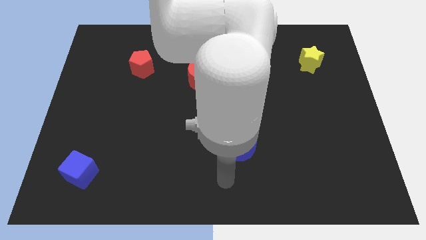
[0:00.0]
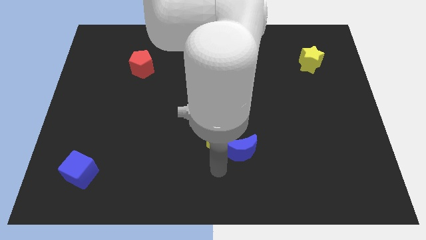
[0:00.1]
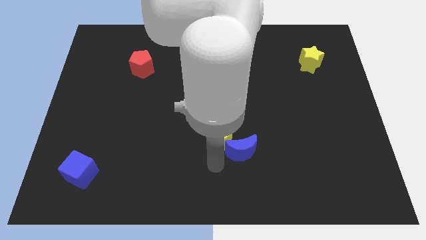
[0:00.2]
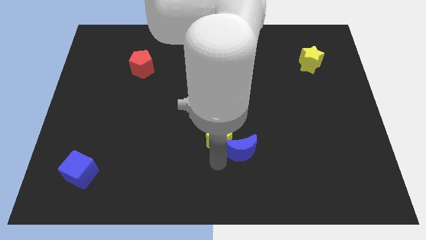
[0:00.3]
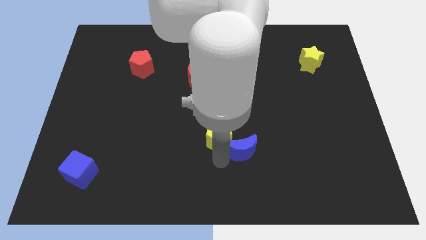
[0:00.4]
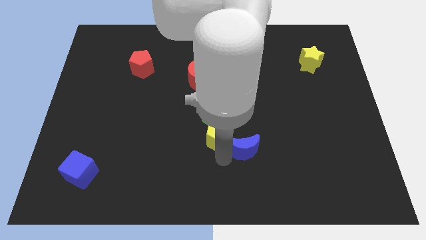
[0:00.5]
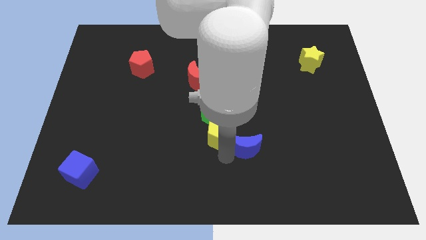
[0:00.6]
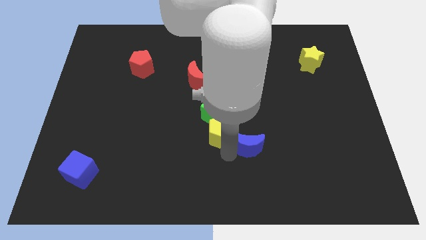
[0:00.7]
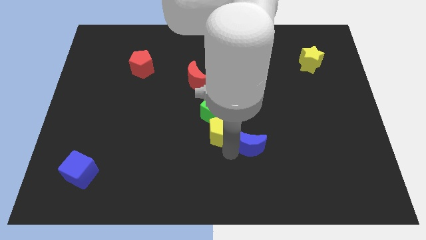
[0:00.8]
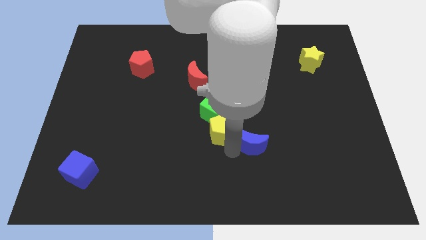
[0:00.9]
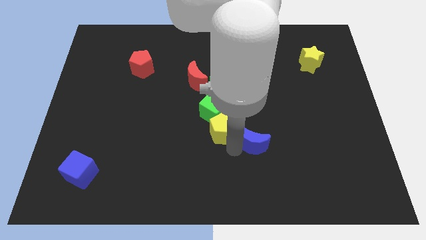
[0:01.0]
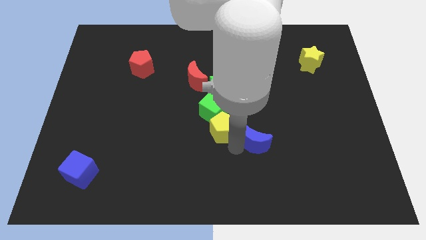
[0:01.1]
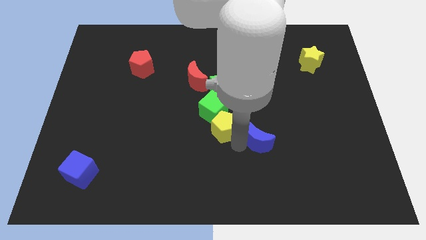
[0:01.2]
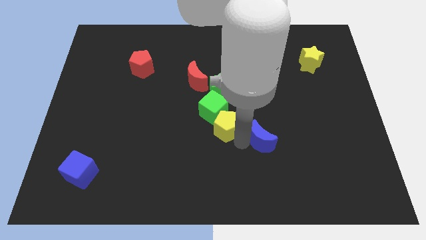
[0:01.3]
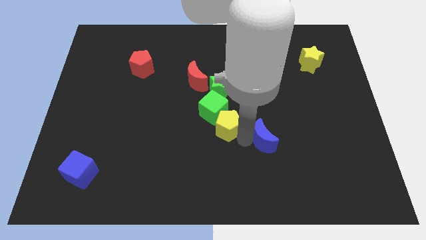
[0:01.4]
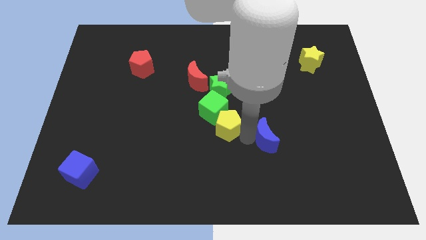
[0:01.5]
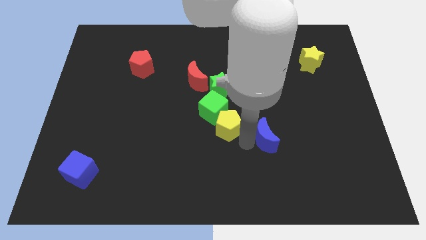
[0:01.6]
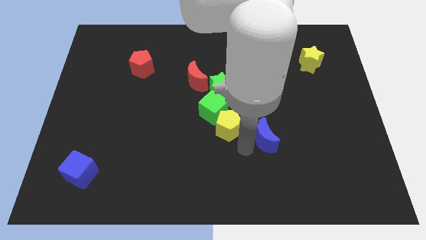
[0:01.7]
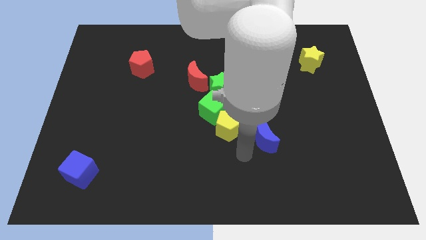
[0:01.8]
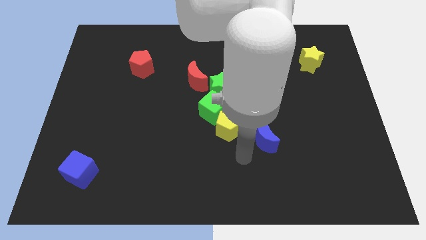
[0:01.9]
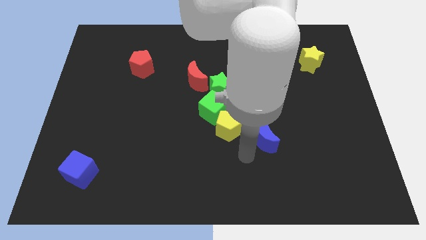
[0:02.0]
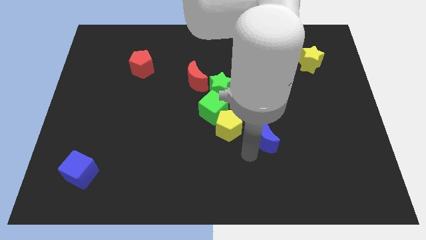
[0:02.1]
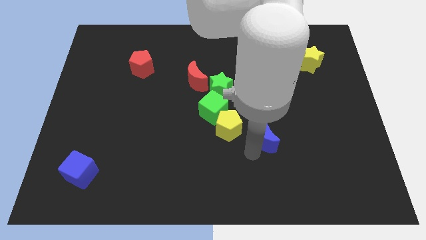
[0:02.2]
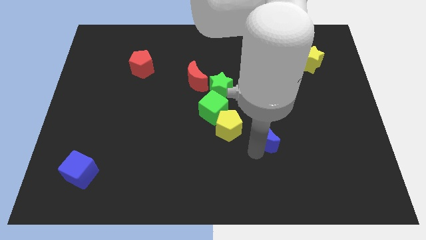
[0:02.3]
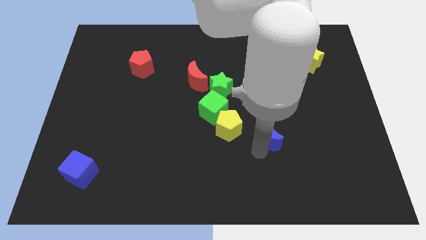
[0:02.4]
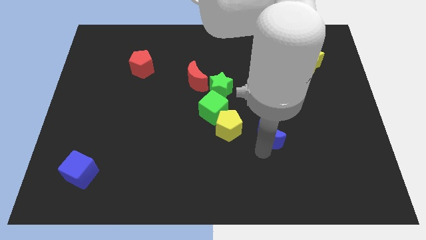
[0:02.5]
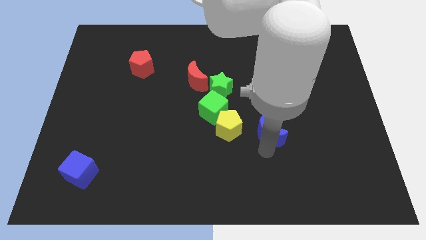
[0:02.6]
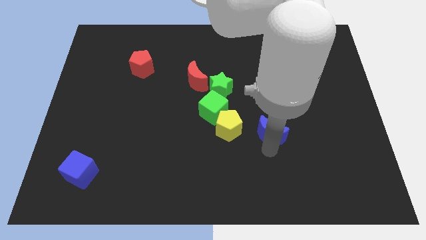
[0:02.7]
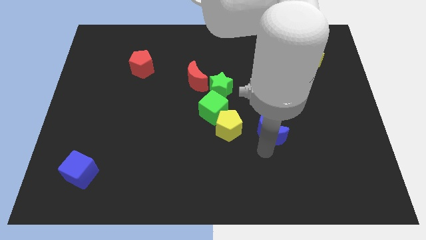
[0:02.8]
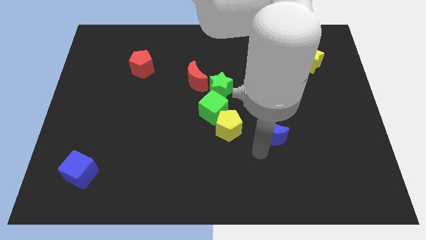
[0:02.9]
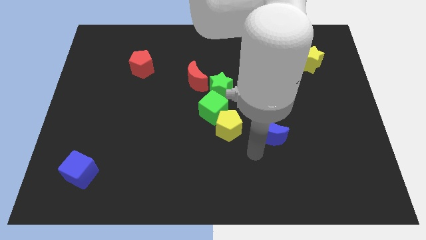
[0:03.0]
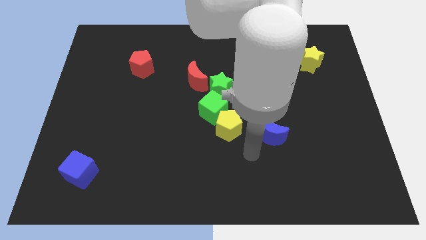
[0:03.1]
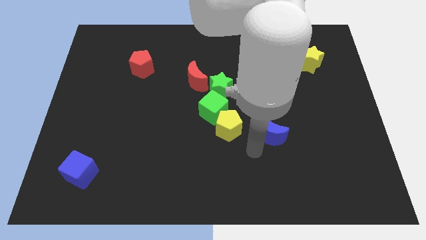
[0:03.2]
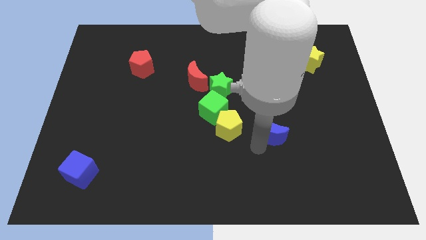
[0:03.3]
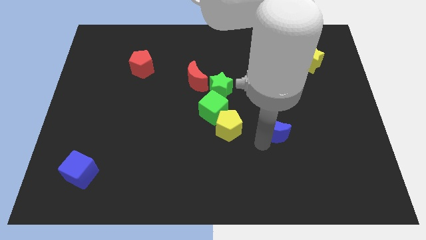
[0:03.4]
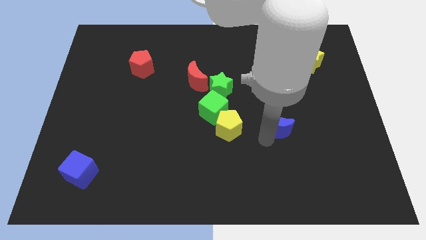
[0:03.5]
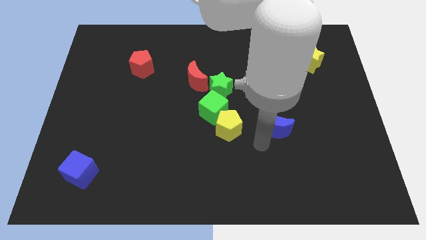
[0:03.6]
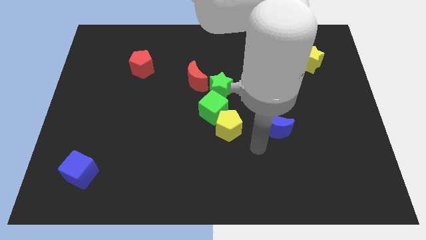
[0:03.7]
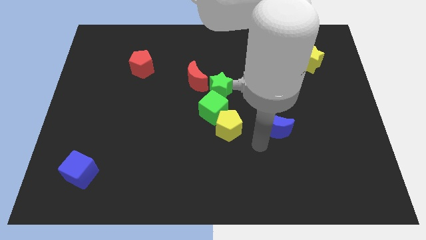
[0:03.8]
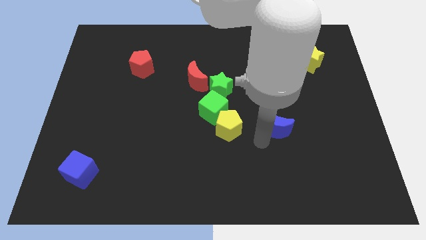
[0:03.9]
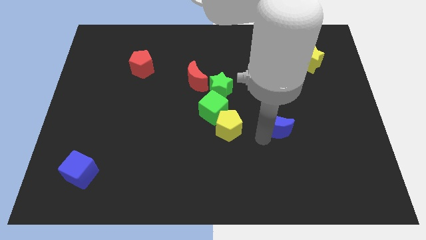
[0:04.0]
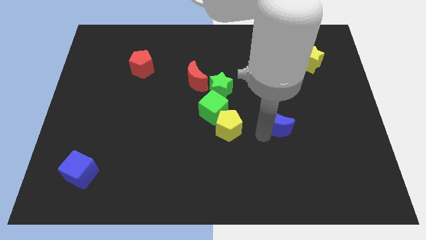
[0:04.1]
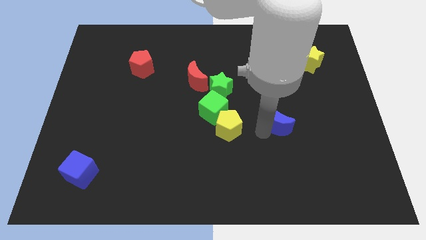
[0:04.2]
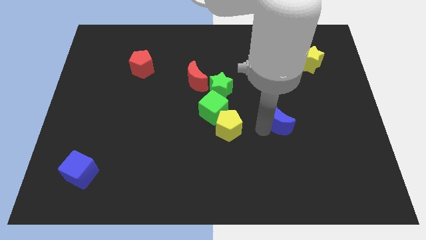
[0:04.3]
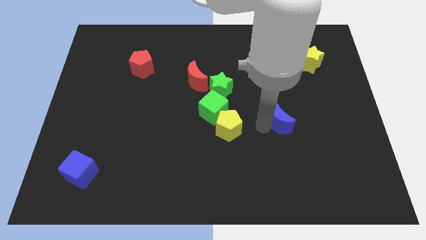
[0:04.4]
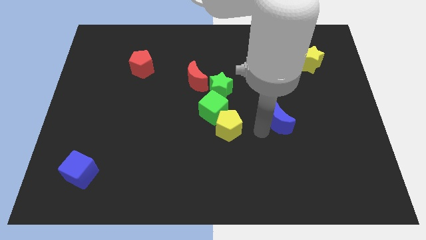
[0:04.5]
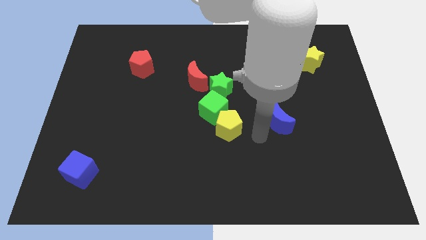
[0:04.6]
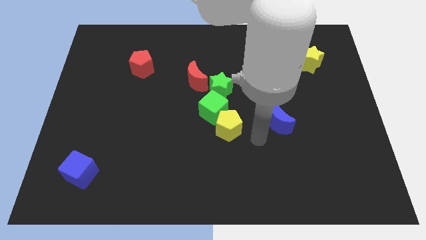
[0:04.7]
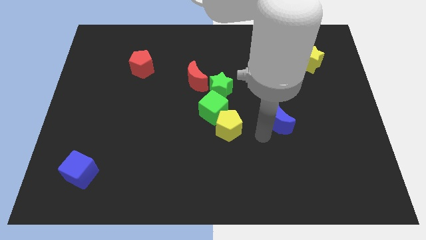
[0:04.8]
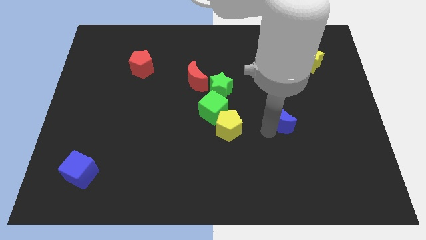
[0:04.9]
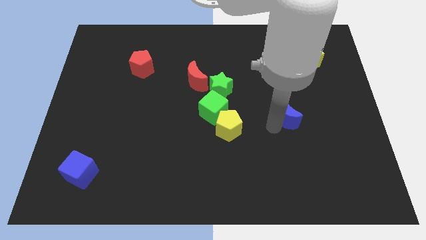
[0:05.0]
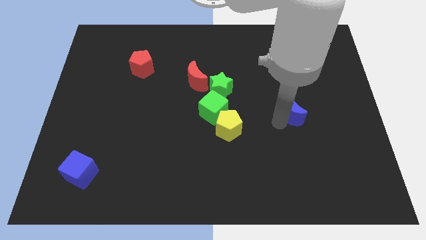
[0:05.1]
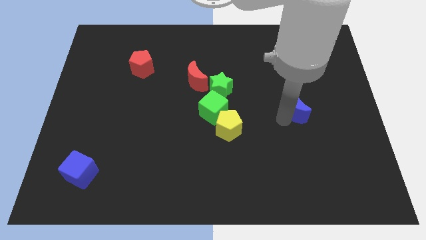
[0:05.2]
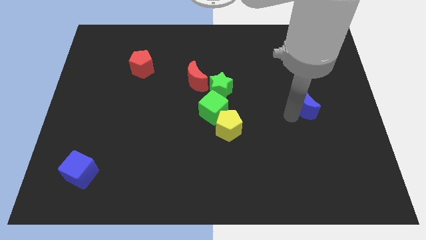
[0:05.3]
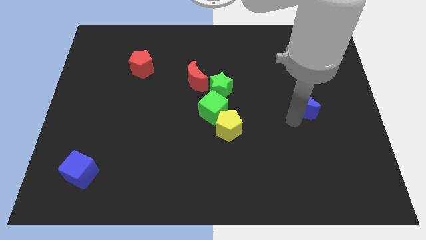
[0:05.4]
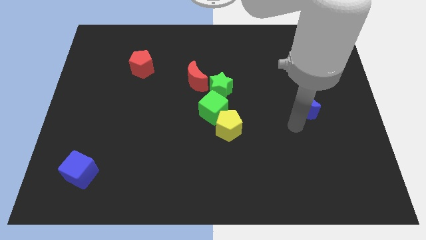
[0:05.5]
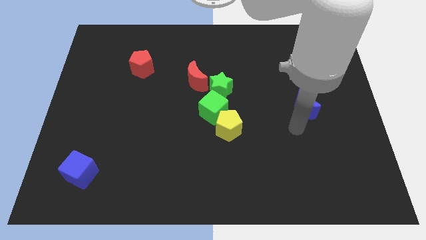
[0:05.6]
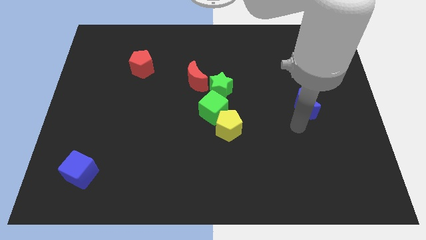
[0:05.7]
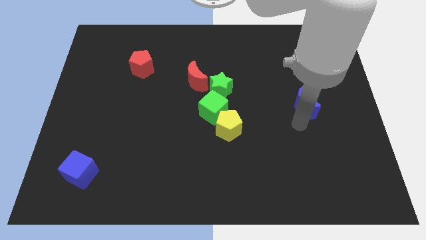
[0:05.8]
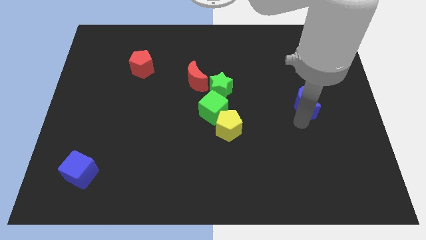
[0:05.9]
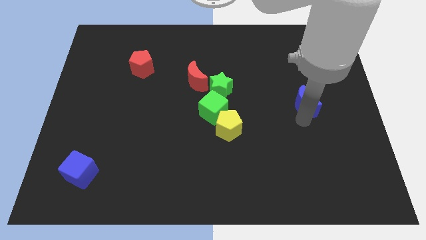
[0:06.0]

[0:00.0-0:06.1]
move the blue moon upwards and right diagonally

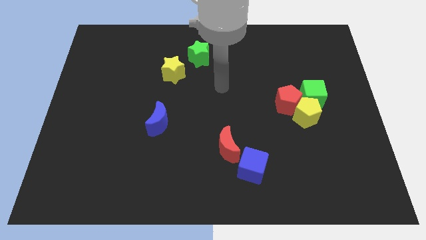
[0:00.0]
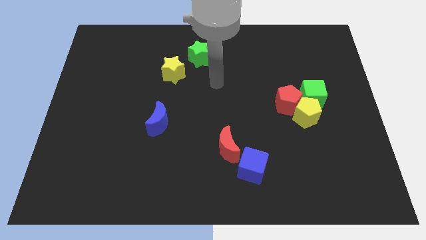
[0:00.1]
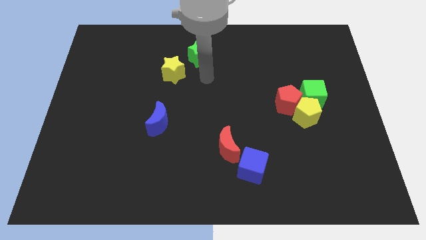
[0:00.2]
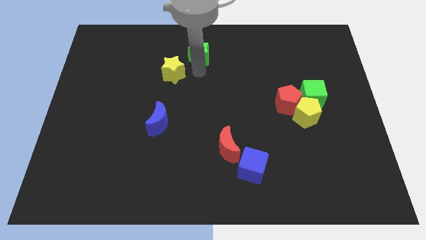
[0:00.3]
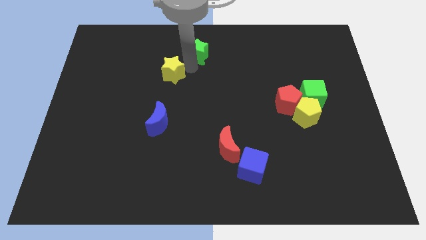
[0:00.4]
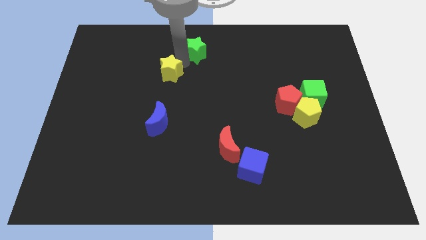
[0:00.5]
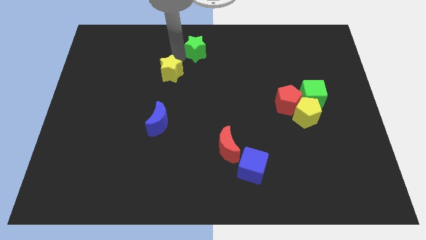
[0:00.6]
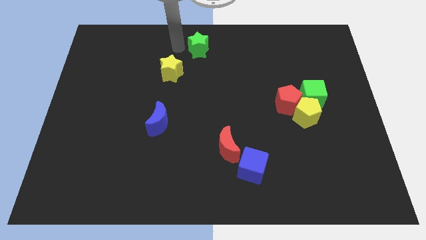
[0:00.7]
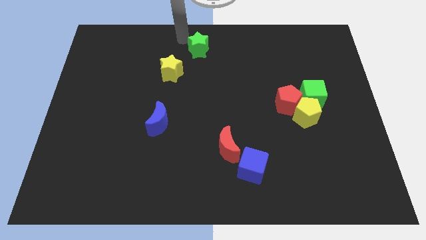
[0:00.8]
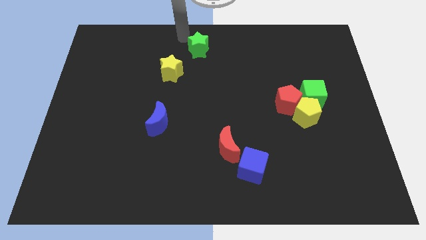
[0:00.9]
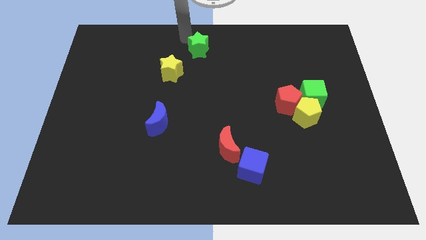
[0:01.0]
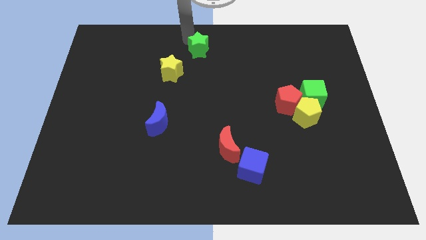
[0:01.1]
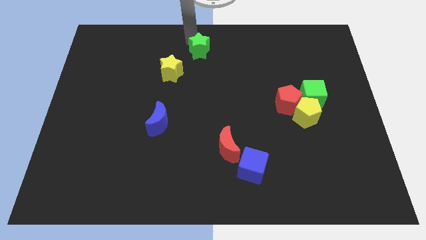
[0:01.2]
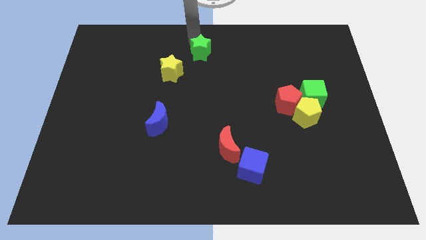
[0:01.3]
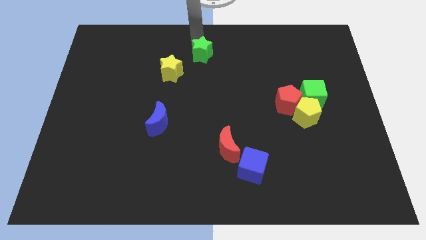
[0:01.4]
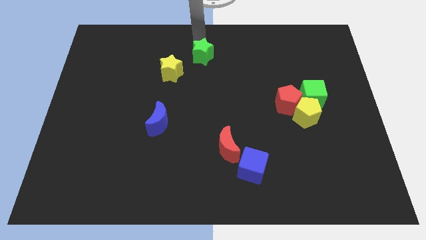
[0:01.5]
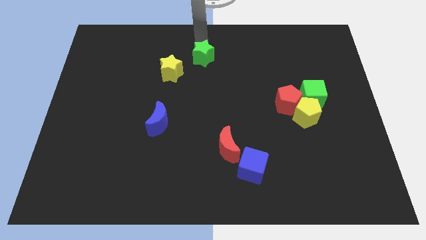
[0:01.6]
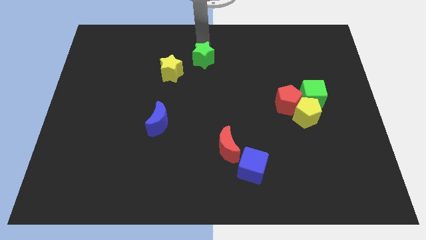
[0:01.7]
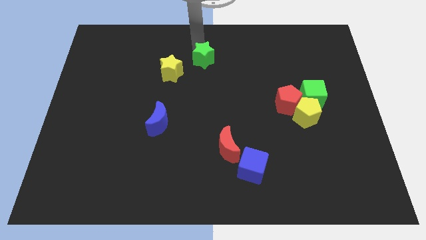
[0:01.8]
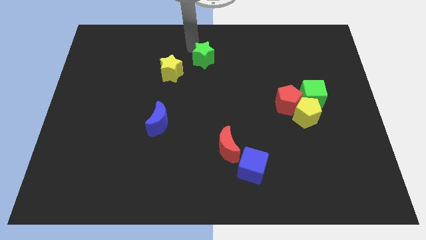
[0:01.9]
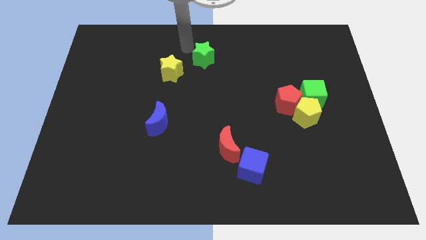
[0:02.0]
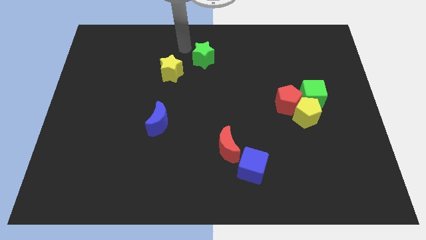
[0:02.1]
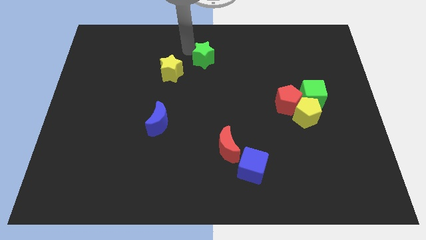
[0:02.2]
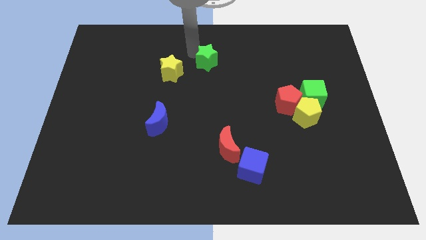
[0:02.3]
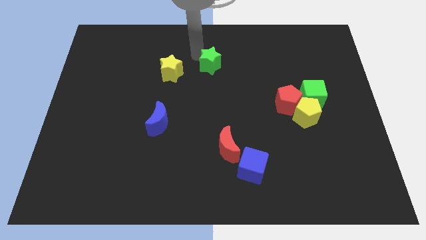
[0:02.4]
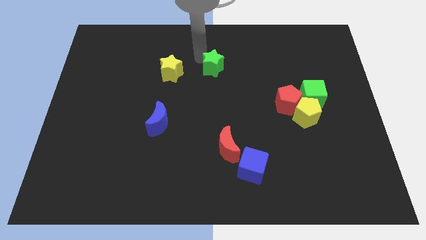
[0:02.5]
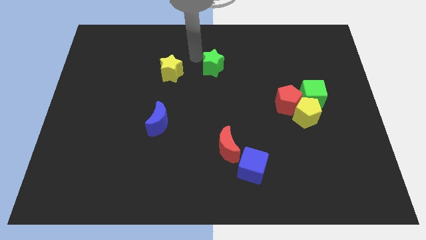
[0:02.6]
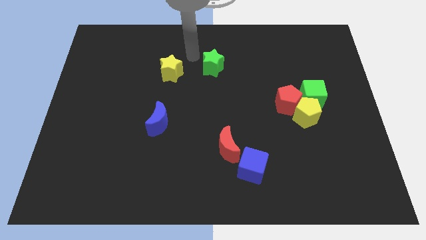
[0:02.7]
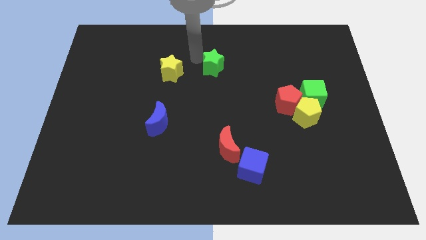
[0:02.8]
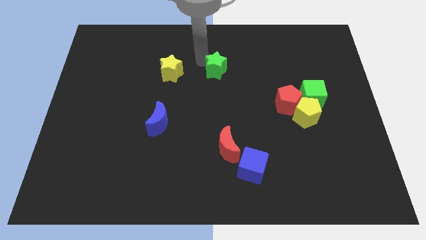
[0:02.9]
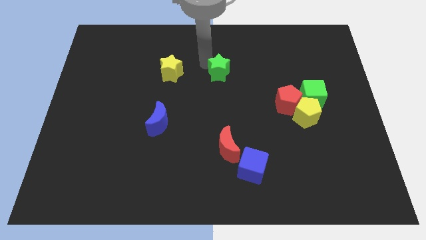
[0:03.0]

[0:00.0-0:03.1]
move the green star down and to the right somewhat
